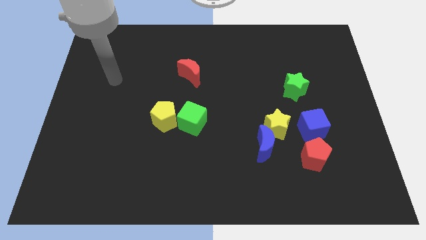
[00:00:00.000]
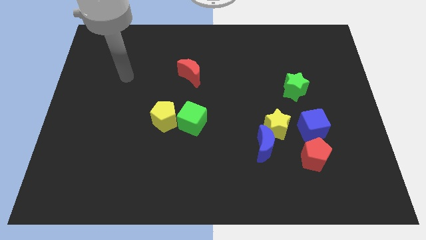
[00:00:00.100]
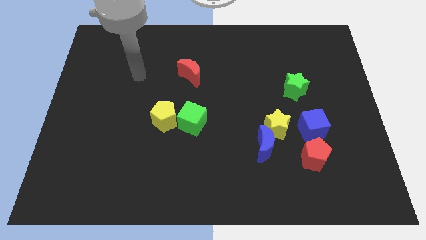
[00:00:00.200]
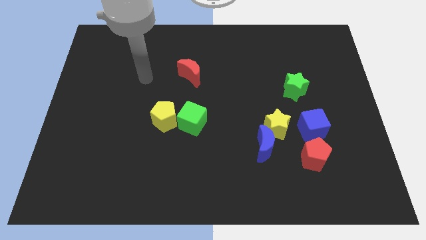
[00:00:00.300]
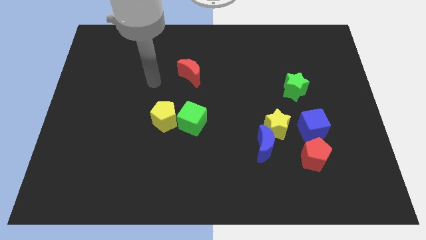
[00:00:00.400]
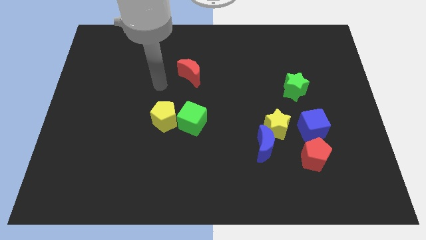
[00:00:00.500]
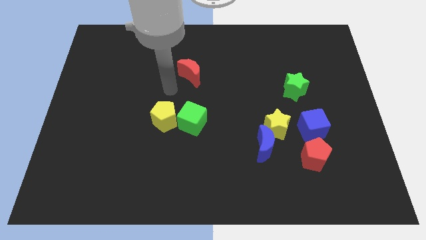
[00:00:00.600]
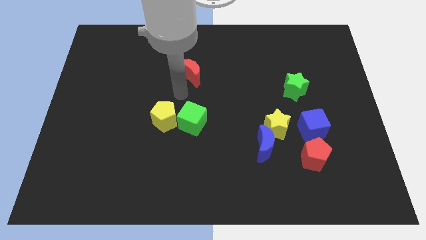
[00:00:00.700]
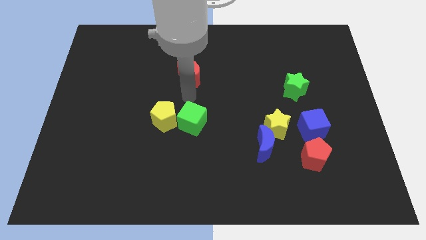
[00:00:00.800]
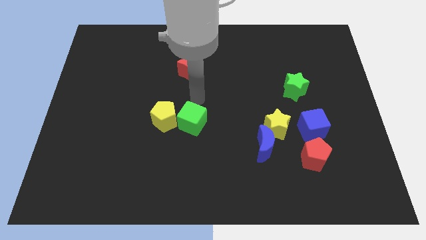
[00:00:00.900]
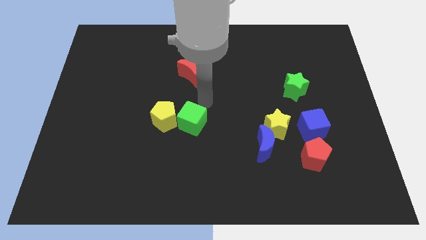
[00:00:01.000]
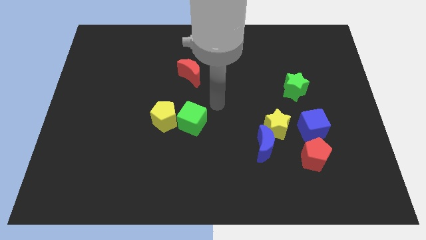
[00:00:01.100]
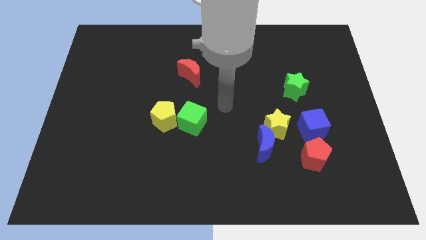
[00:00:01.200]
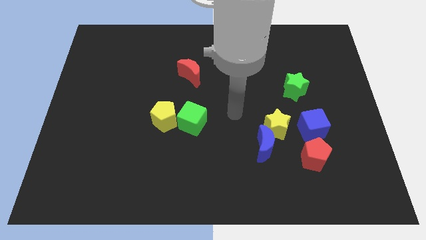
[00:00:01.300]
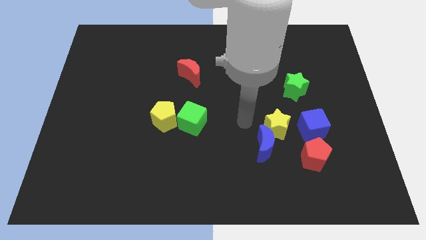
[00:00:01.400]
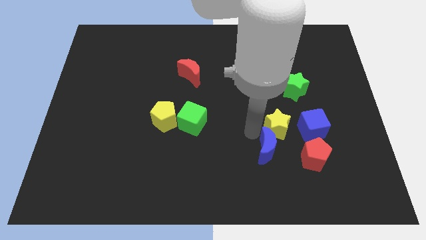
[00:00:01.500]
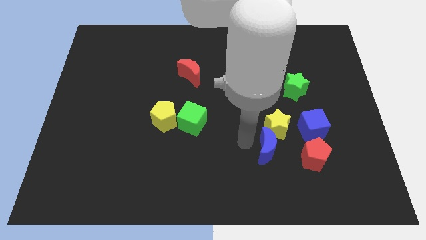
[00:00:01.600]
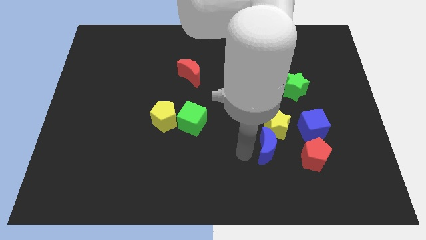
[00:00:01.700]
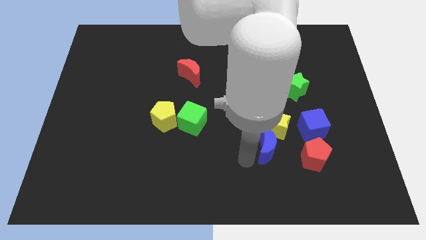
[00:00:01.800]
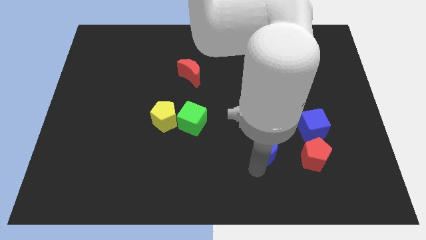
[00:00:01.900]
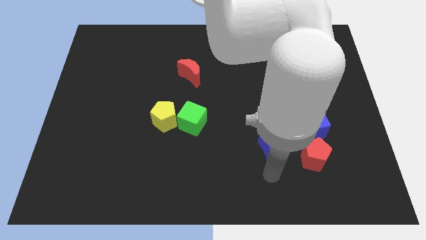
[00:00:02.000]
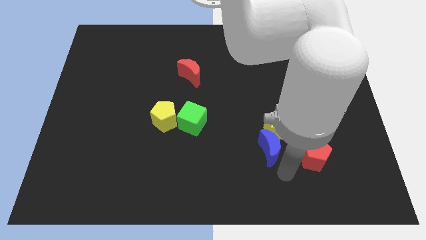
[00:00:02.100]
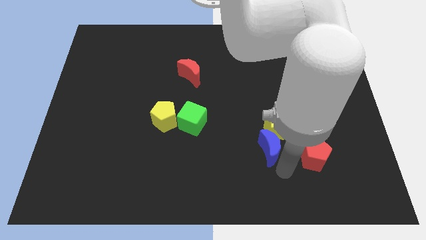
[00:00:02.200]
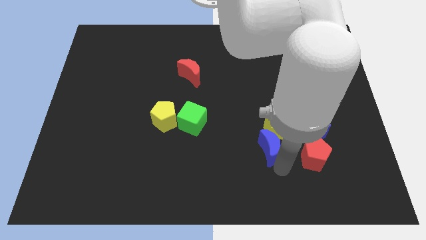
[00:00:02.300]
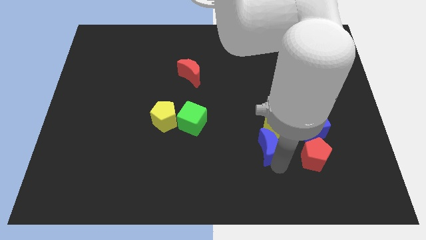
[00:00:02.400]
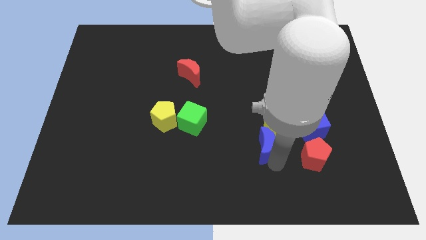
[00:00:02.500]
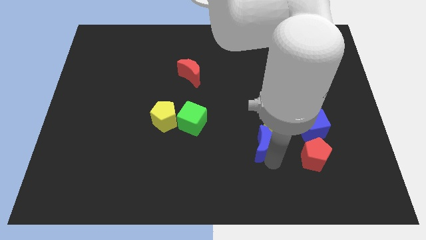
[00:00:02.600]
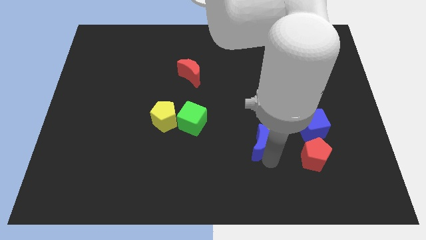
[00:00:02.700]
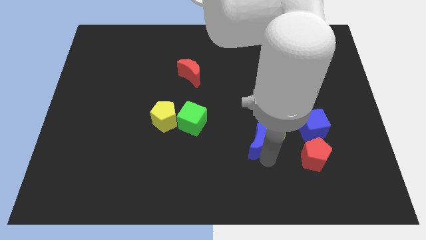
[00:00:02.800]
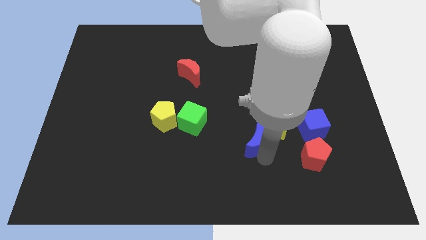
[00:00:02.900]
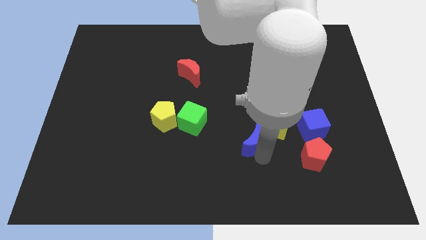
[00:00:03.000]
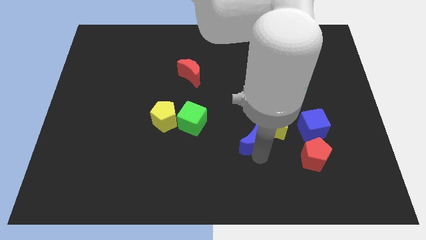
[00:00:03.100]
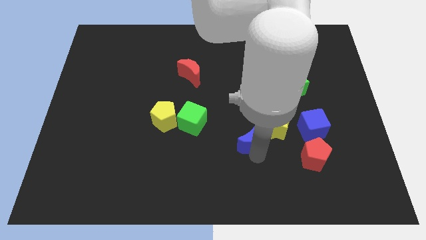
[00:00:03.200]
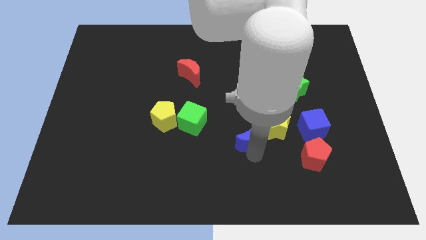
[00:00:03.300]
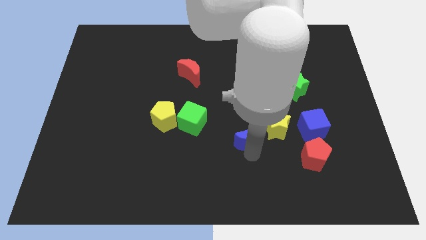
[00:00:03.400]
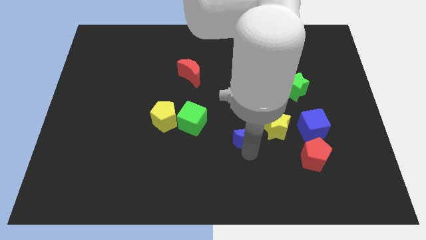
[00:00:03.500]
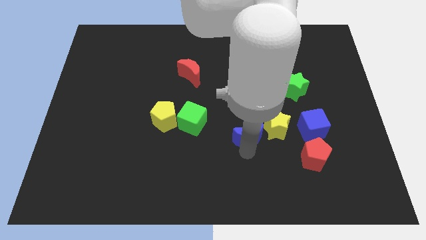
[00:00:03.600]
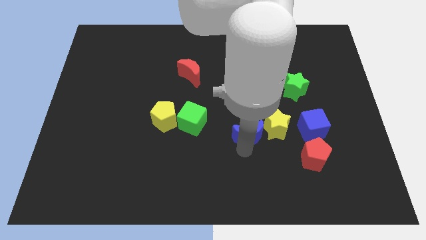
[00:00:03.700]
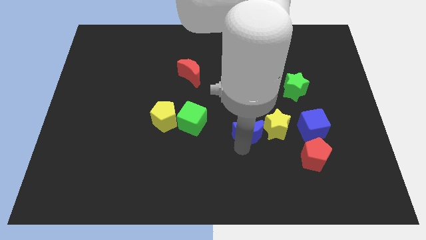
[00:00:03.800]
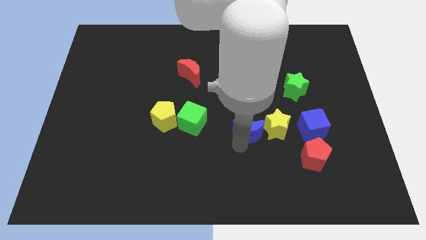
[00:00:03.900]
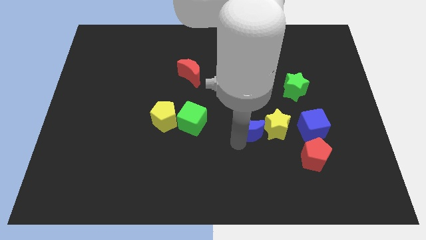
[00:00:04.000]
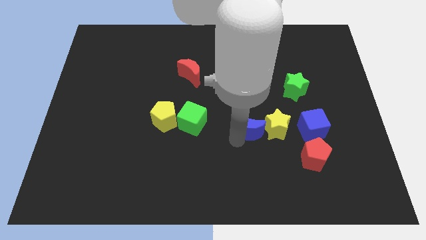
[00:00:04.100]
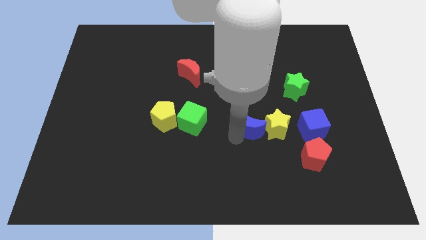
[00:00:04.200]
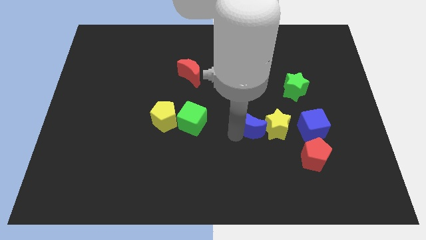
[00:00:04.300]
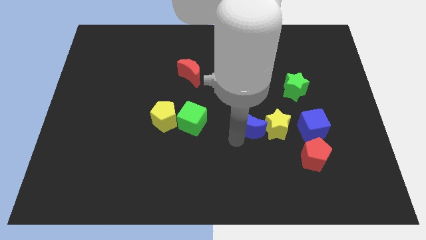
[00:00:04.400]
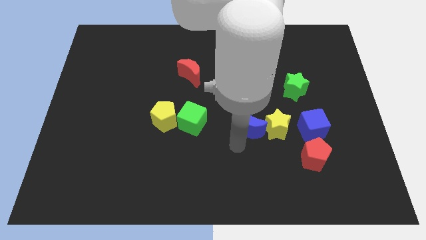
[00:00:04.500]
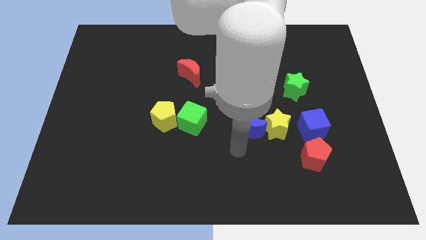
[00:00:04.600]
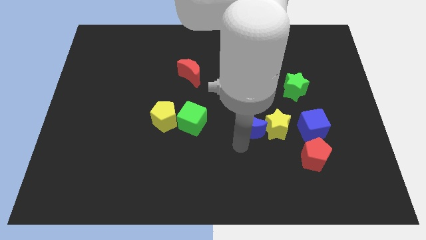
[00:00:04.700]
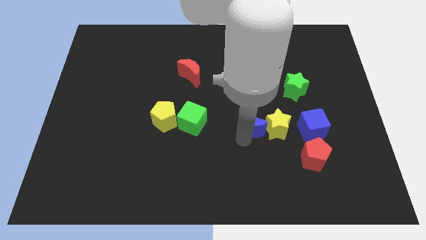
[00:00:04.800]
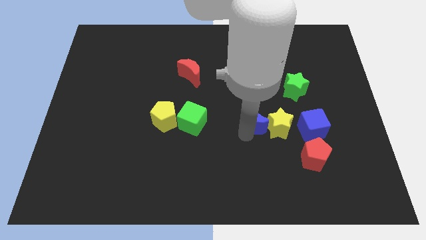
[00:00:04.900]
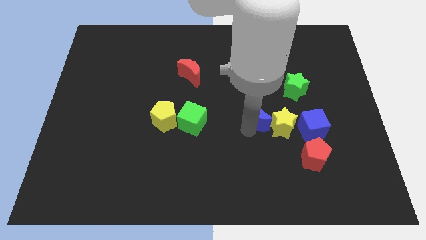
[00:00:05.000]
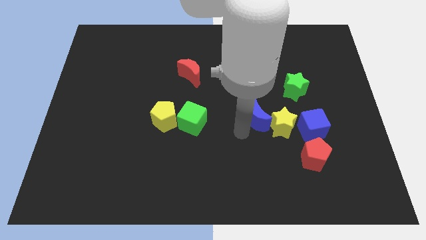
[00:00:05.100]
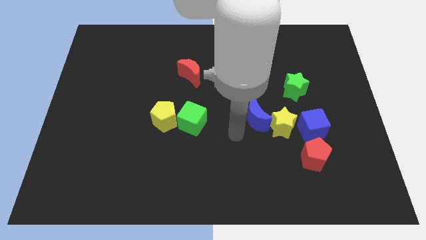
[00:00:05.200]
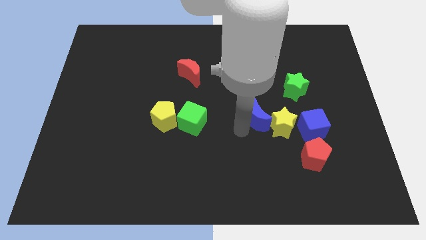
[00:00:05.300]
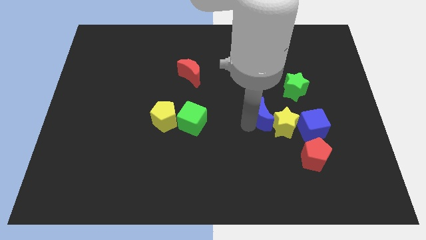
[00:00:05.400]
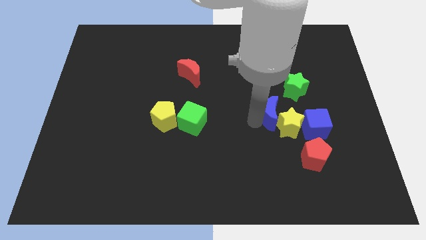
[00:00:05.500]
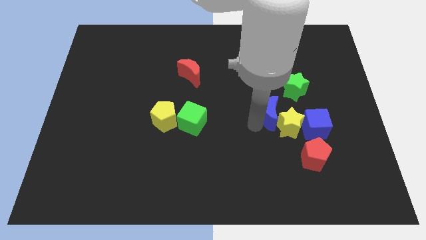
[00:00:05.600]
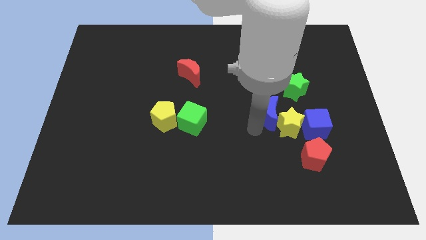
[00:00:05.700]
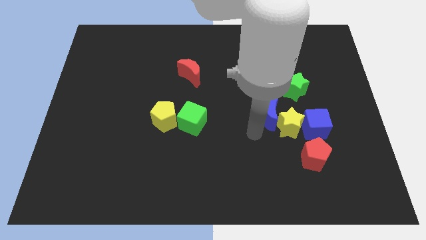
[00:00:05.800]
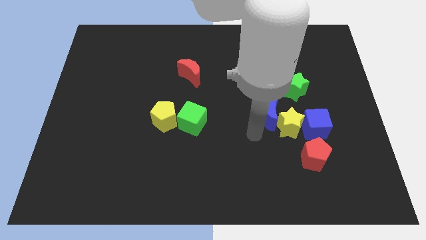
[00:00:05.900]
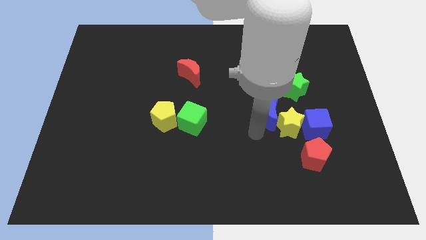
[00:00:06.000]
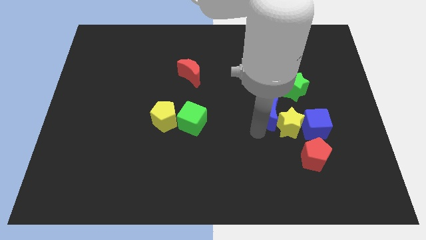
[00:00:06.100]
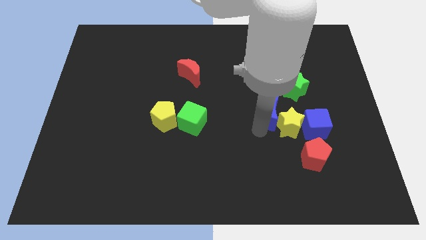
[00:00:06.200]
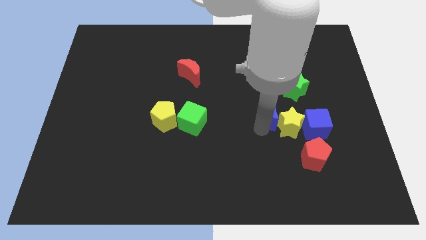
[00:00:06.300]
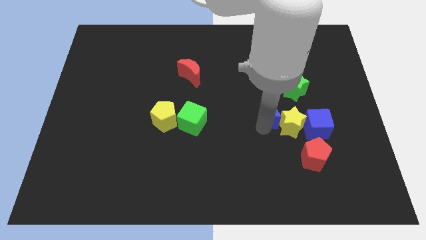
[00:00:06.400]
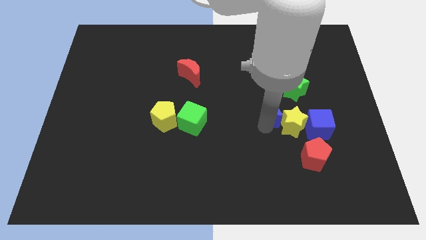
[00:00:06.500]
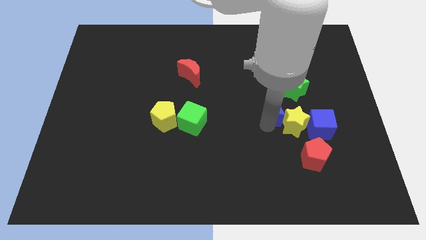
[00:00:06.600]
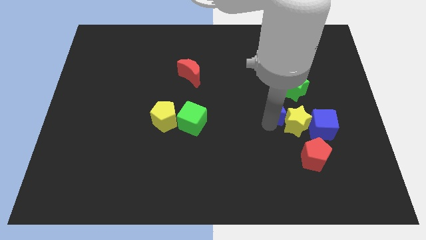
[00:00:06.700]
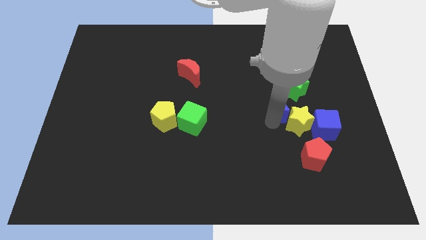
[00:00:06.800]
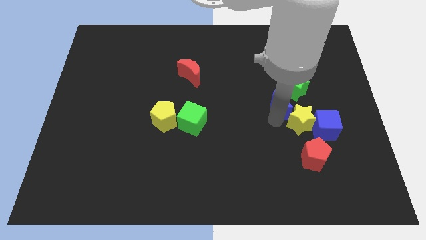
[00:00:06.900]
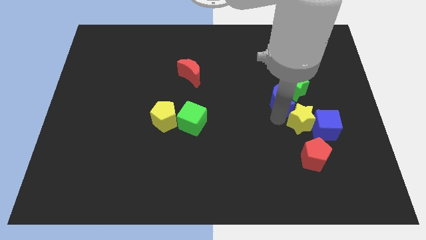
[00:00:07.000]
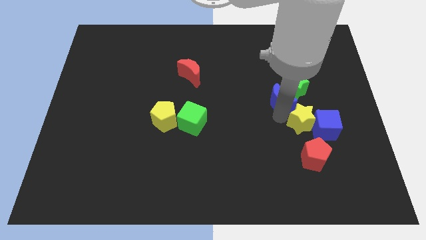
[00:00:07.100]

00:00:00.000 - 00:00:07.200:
push the blue moon towards the green star

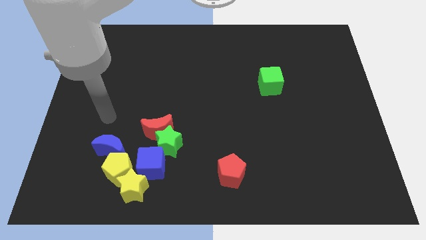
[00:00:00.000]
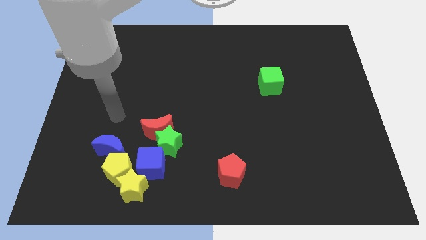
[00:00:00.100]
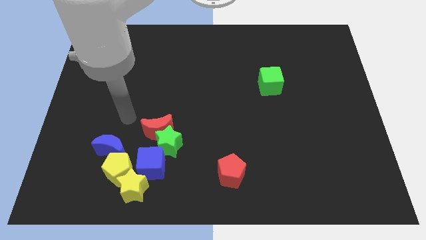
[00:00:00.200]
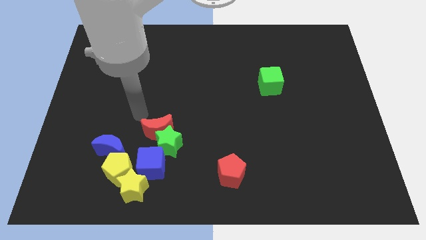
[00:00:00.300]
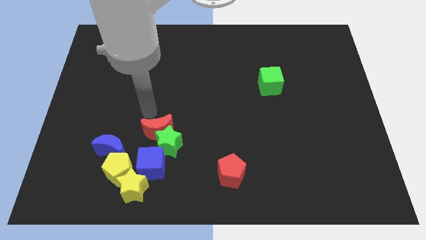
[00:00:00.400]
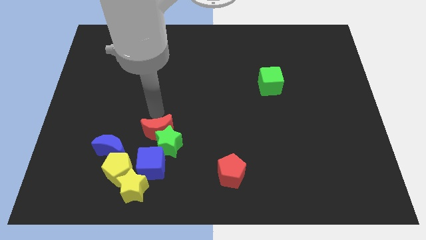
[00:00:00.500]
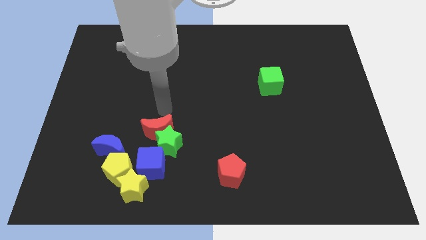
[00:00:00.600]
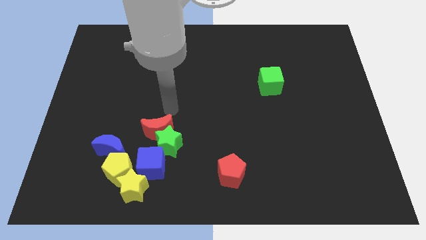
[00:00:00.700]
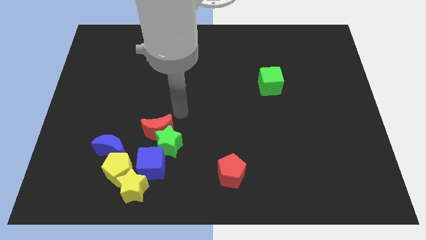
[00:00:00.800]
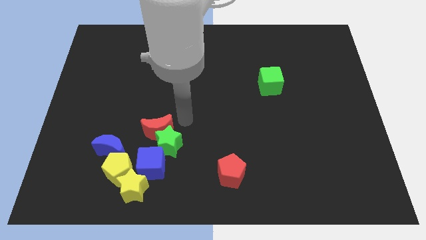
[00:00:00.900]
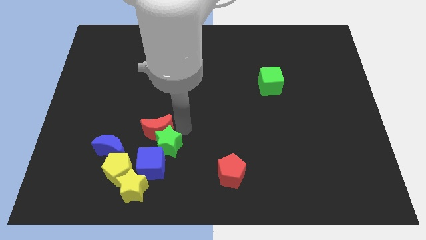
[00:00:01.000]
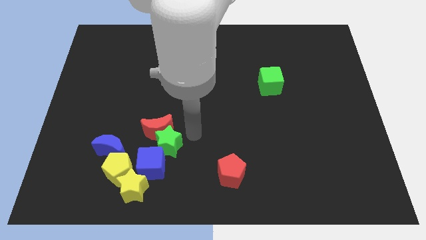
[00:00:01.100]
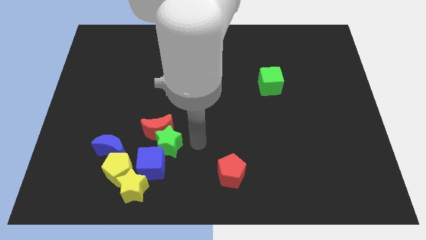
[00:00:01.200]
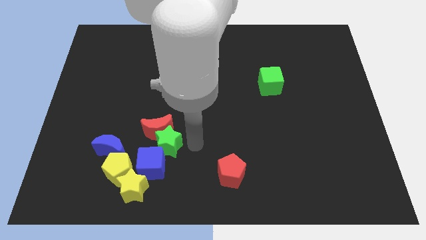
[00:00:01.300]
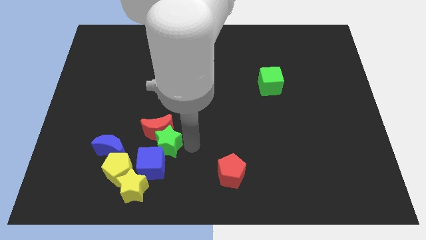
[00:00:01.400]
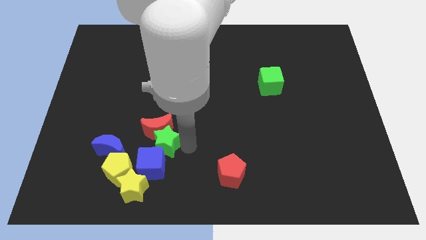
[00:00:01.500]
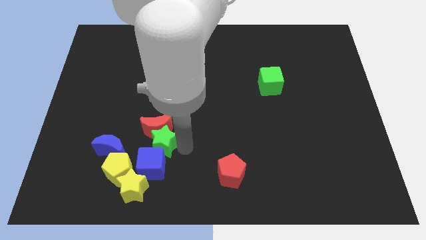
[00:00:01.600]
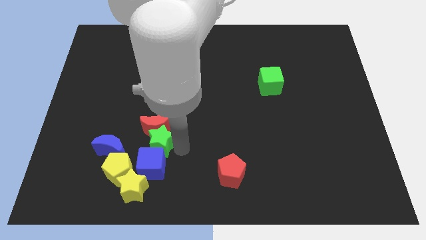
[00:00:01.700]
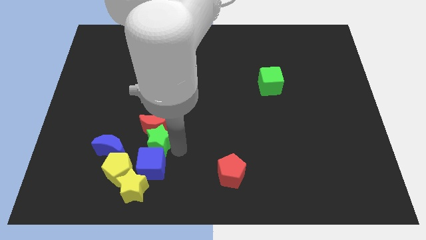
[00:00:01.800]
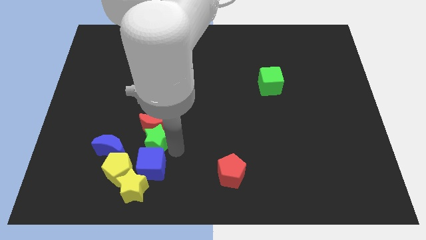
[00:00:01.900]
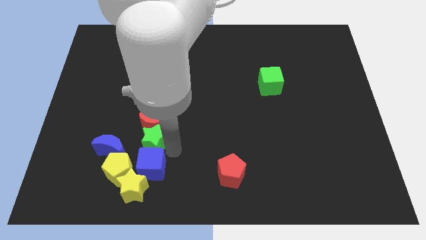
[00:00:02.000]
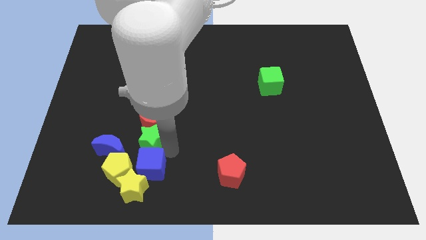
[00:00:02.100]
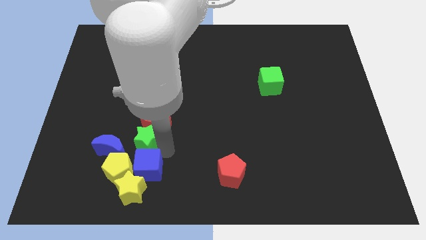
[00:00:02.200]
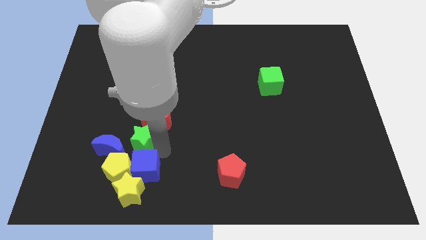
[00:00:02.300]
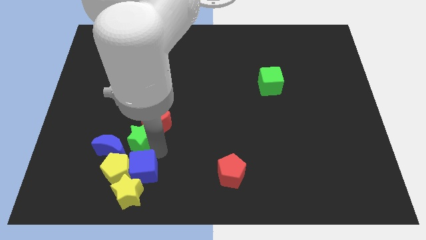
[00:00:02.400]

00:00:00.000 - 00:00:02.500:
move the green star towards the blue moon
